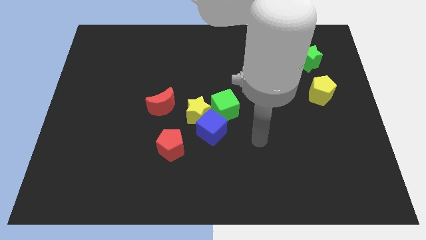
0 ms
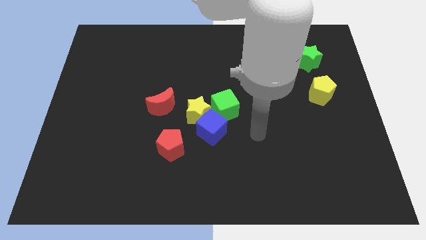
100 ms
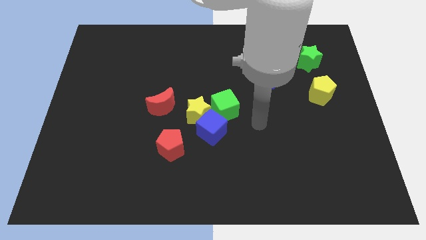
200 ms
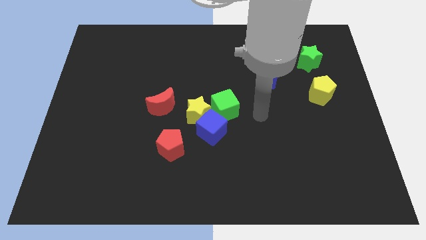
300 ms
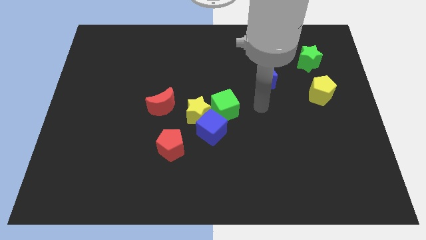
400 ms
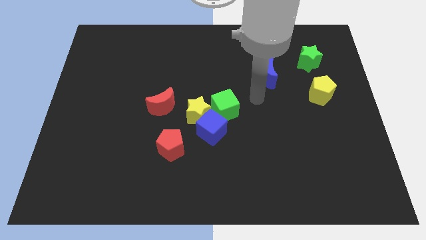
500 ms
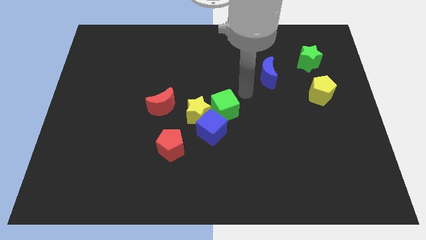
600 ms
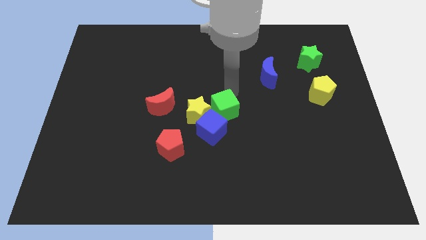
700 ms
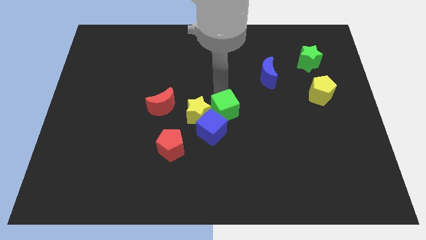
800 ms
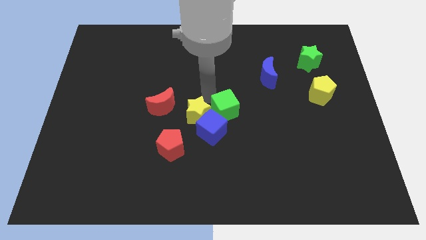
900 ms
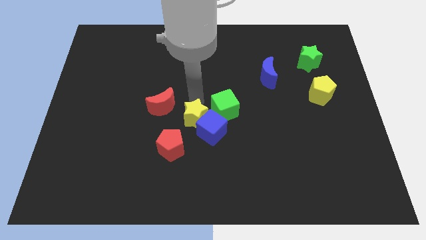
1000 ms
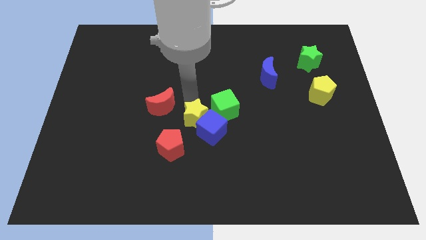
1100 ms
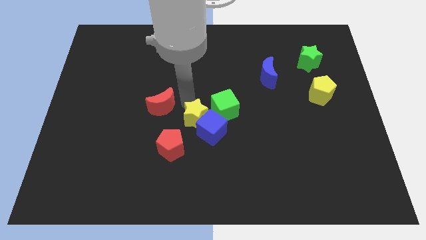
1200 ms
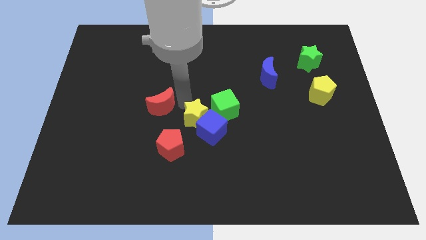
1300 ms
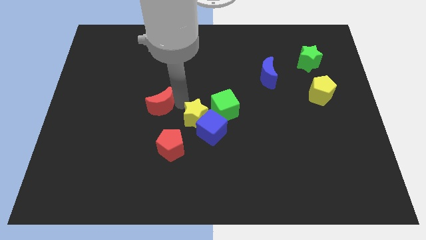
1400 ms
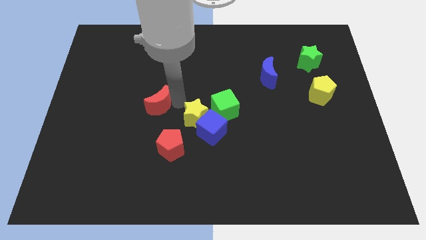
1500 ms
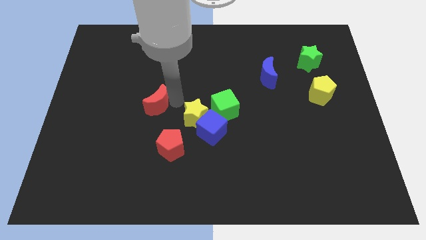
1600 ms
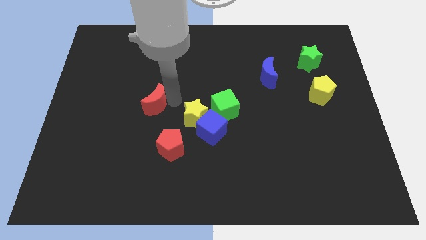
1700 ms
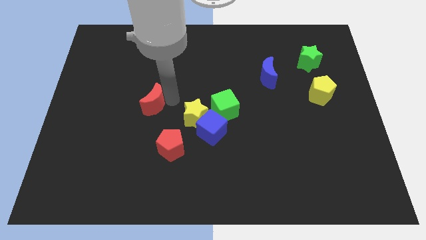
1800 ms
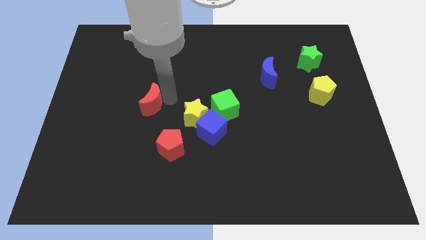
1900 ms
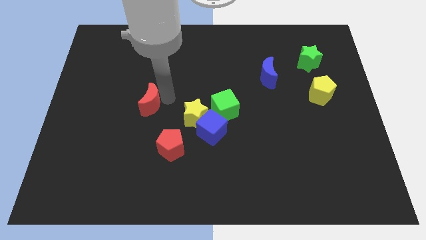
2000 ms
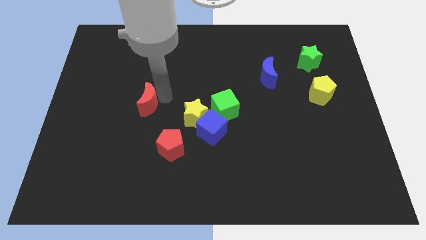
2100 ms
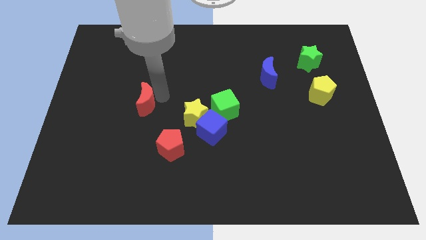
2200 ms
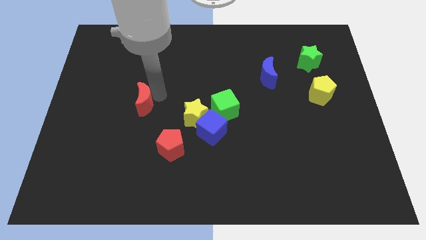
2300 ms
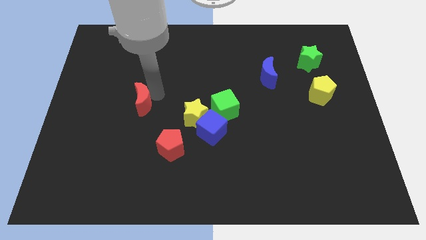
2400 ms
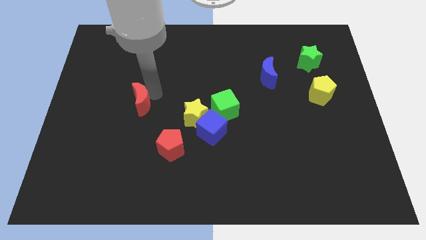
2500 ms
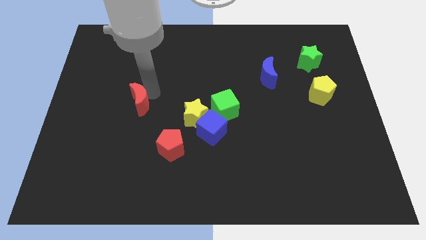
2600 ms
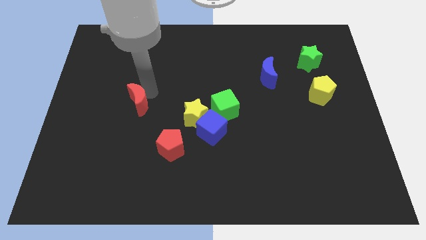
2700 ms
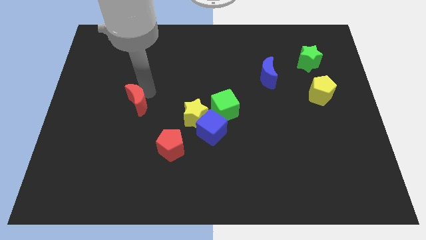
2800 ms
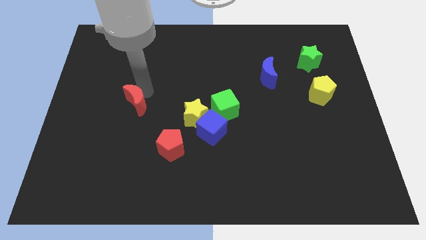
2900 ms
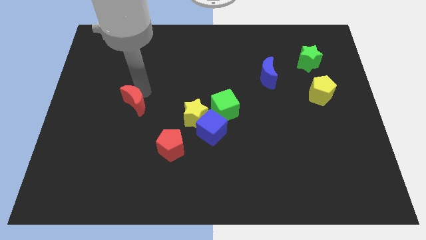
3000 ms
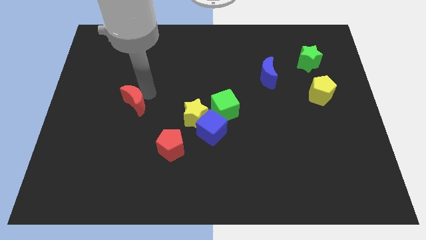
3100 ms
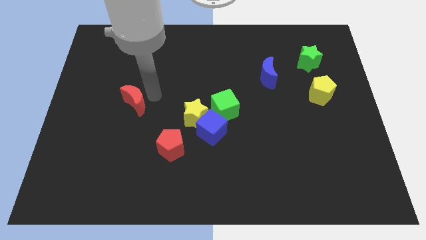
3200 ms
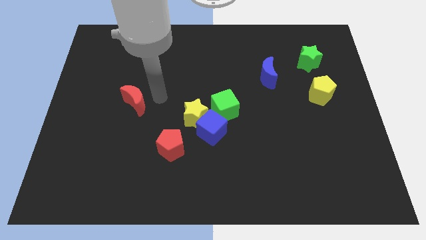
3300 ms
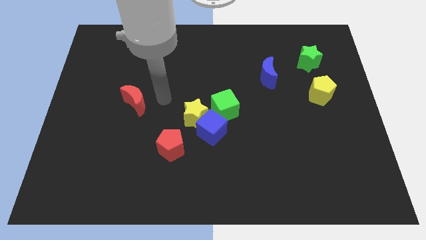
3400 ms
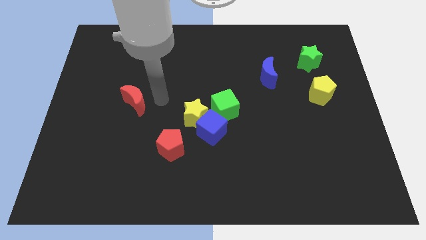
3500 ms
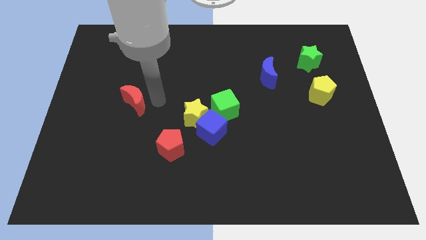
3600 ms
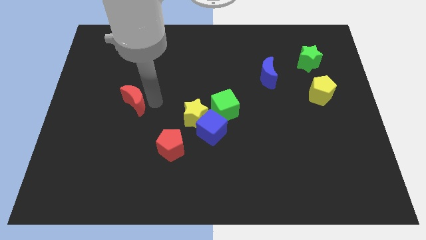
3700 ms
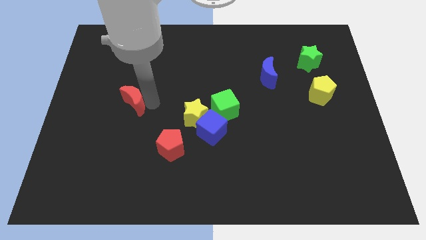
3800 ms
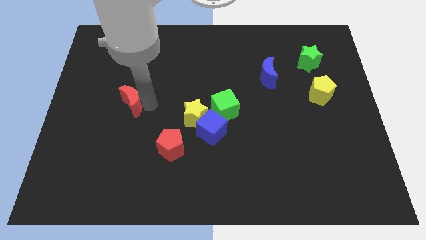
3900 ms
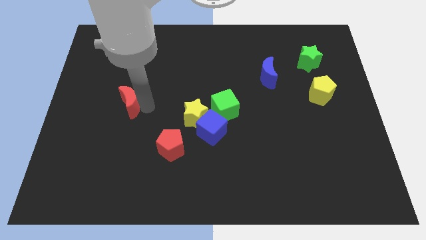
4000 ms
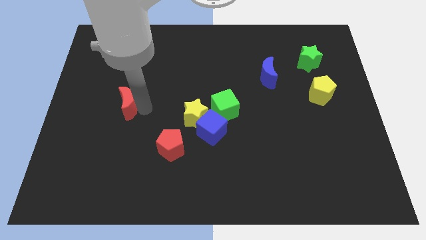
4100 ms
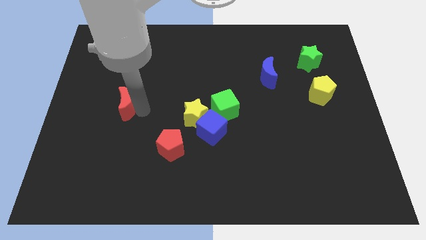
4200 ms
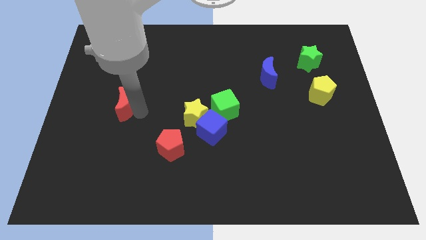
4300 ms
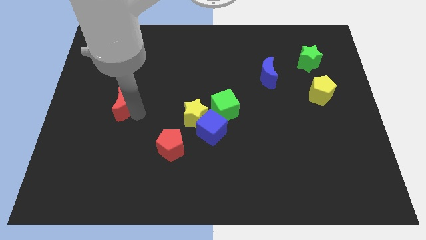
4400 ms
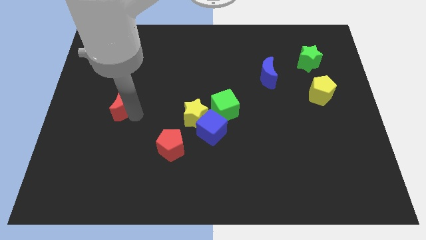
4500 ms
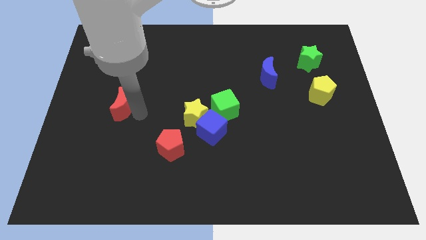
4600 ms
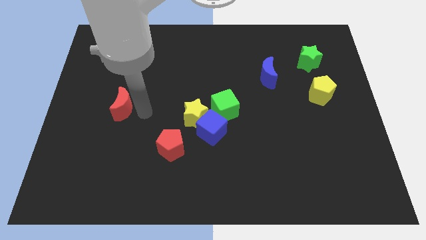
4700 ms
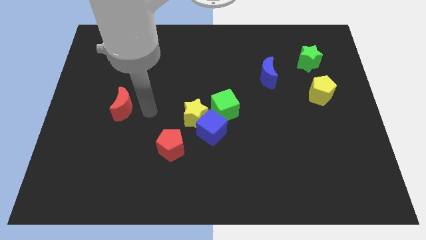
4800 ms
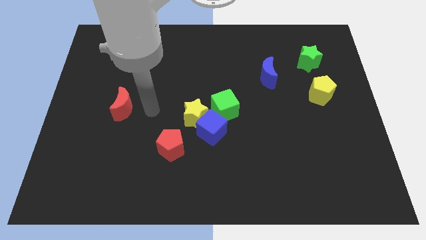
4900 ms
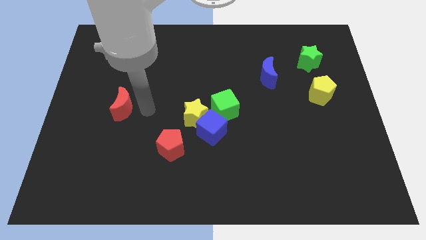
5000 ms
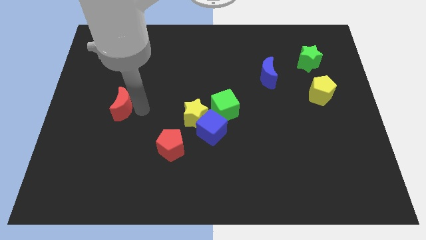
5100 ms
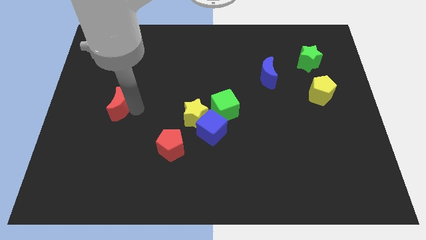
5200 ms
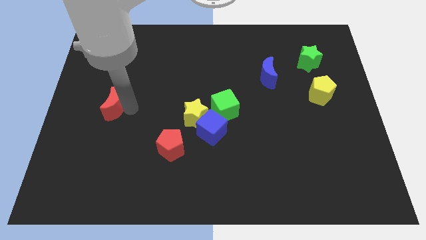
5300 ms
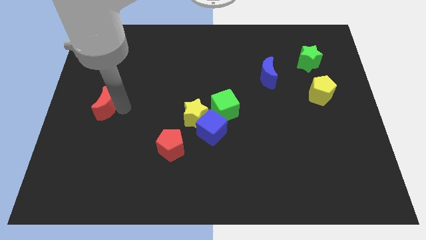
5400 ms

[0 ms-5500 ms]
move the red moon to the left side of the board
